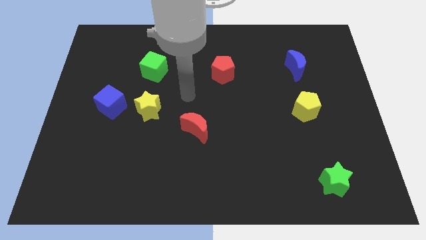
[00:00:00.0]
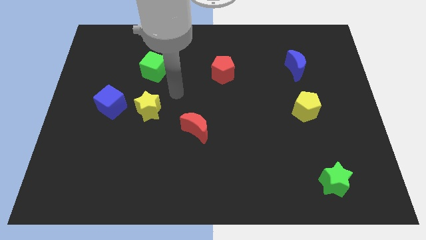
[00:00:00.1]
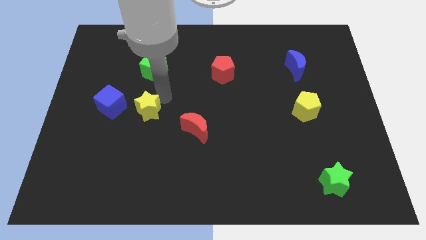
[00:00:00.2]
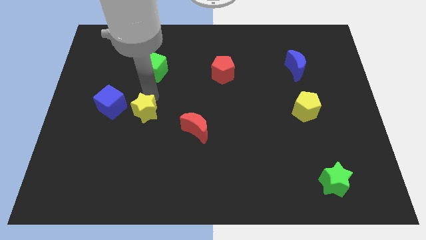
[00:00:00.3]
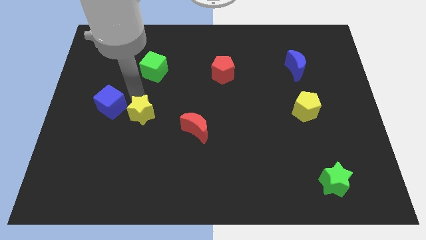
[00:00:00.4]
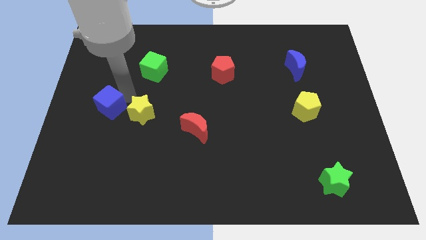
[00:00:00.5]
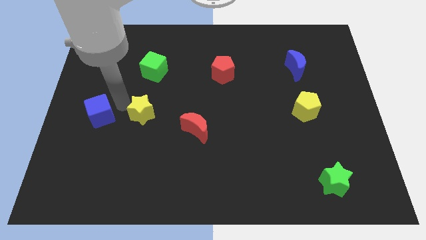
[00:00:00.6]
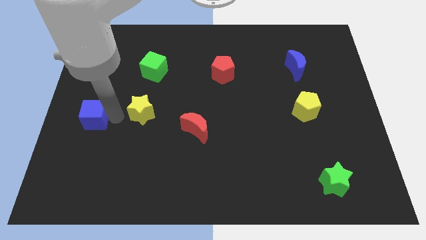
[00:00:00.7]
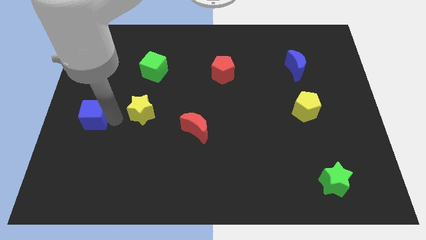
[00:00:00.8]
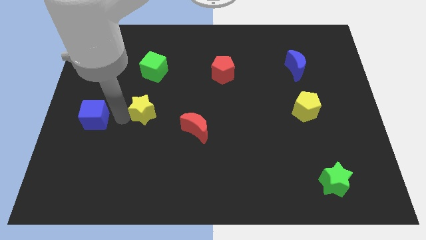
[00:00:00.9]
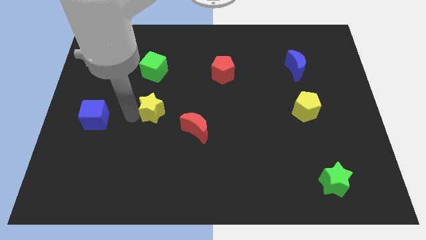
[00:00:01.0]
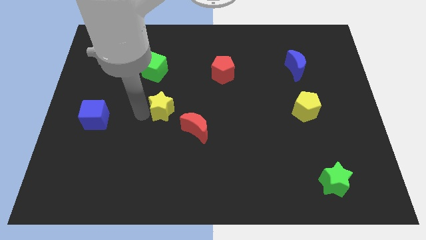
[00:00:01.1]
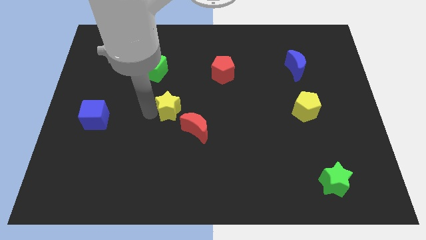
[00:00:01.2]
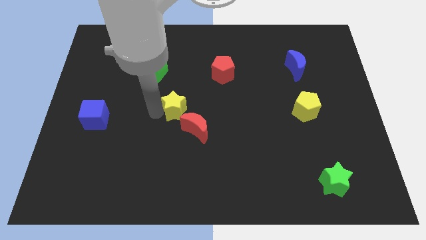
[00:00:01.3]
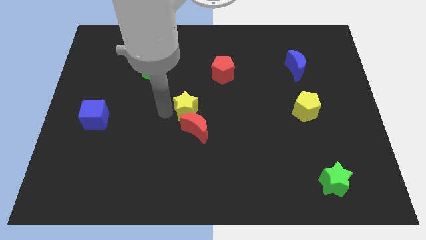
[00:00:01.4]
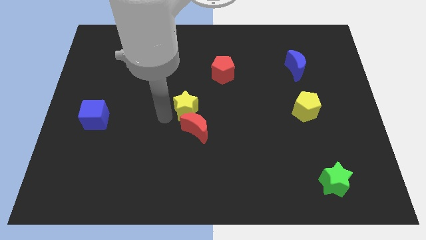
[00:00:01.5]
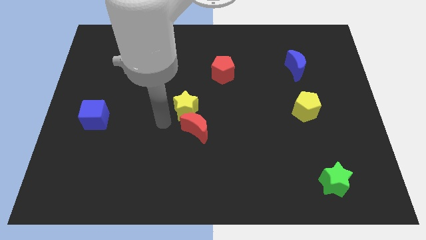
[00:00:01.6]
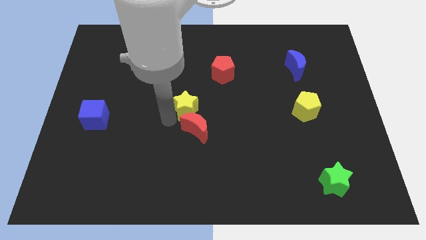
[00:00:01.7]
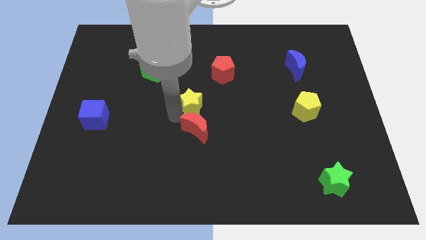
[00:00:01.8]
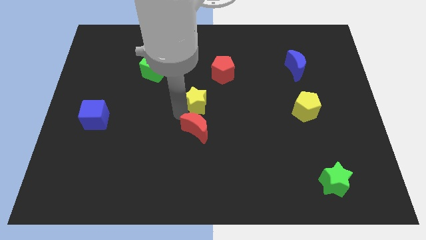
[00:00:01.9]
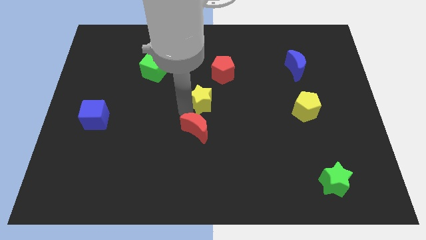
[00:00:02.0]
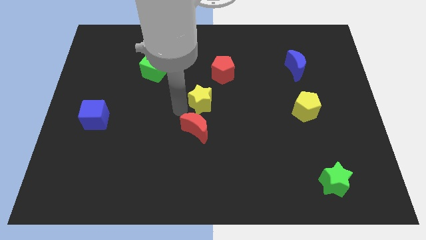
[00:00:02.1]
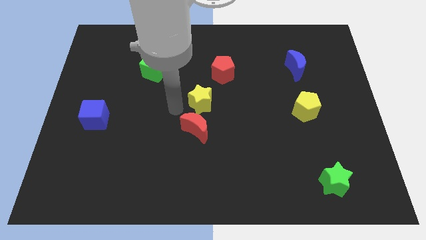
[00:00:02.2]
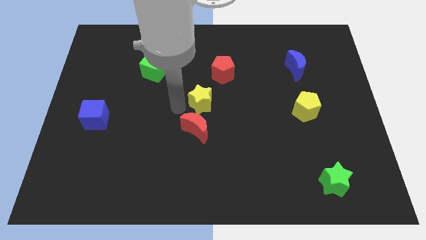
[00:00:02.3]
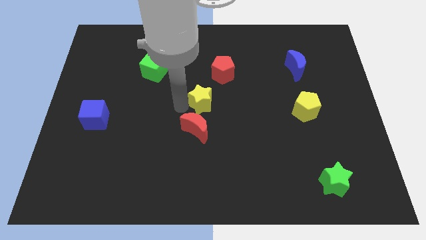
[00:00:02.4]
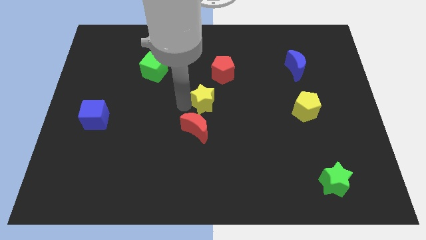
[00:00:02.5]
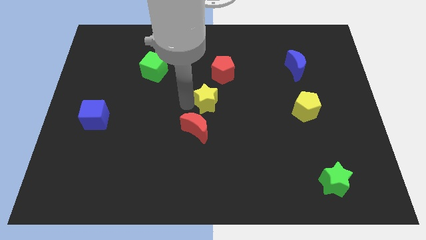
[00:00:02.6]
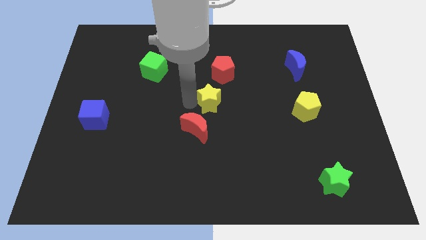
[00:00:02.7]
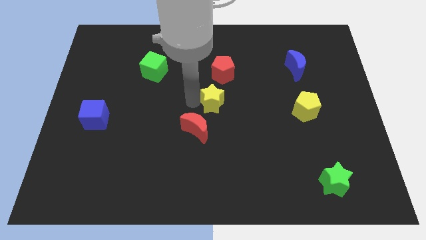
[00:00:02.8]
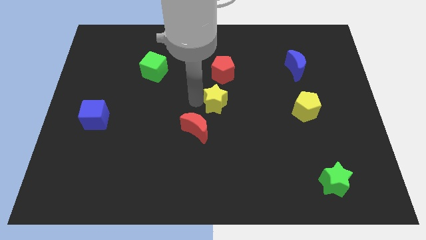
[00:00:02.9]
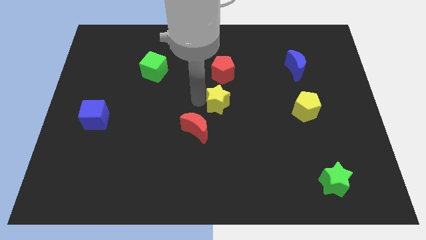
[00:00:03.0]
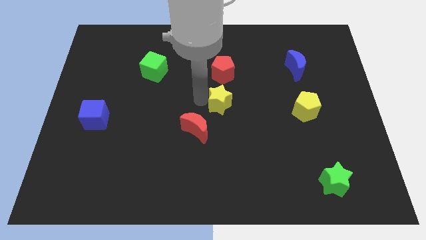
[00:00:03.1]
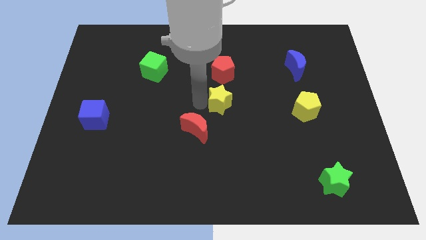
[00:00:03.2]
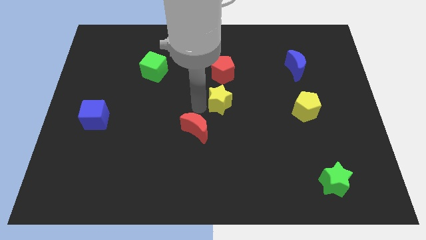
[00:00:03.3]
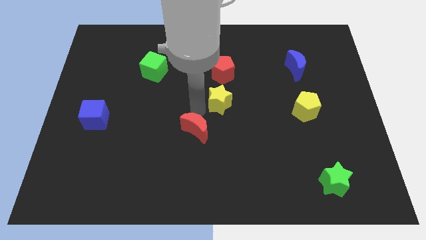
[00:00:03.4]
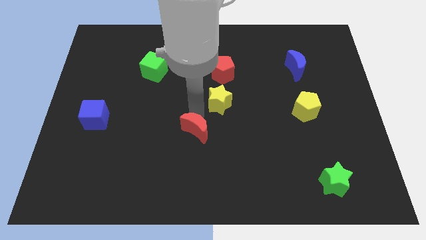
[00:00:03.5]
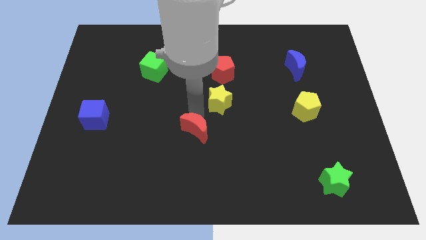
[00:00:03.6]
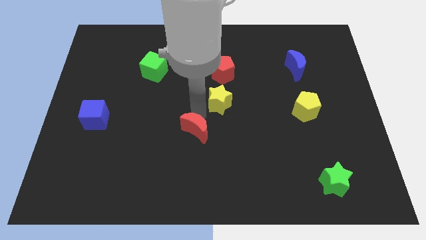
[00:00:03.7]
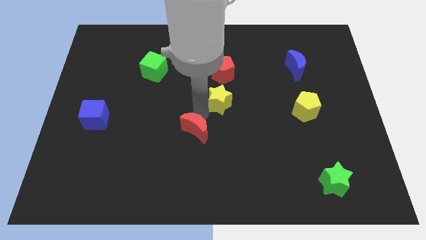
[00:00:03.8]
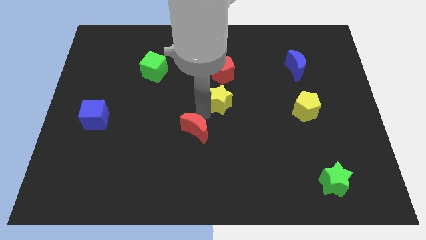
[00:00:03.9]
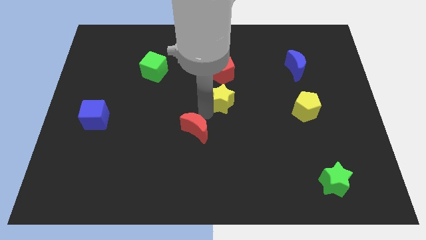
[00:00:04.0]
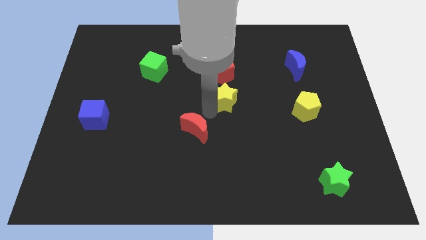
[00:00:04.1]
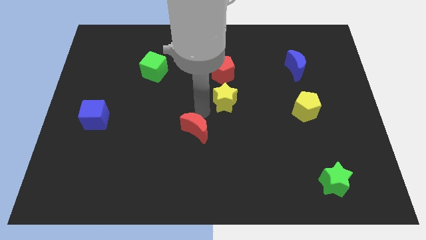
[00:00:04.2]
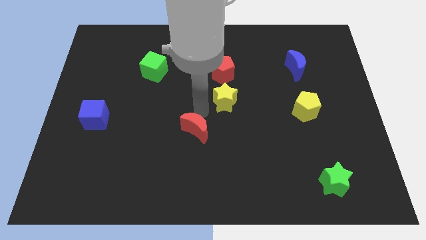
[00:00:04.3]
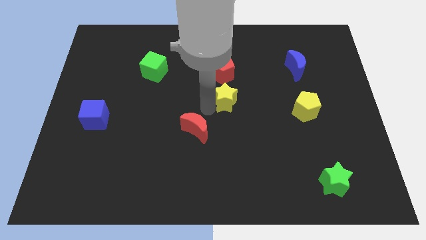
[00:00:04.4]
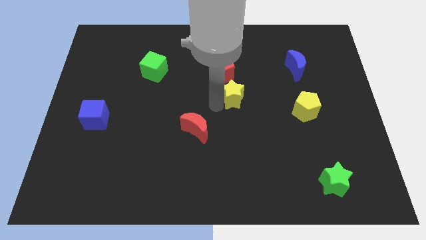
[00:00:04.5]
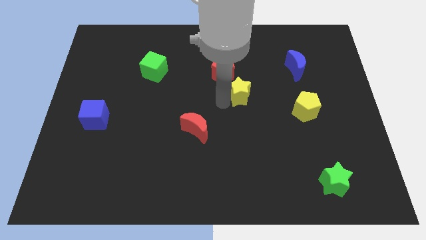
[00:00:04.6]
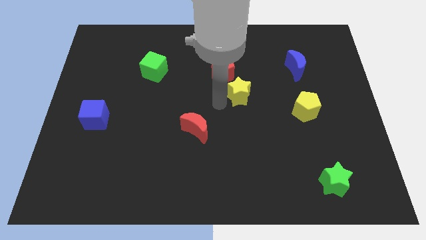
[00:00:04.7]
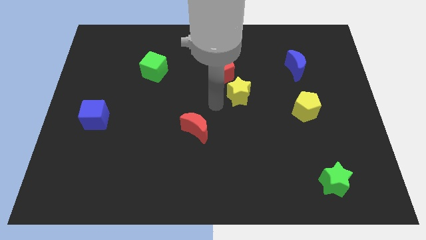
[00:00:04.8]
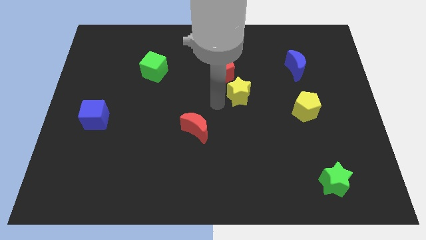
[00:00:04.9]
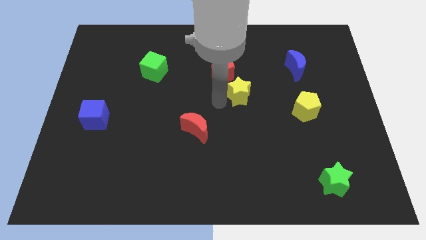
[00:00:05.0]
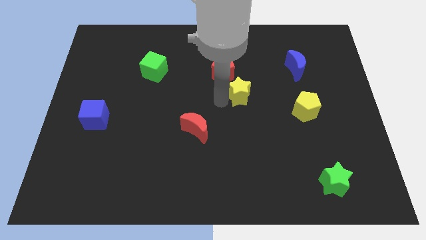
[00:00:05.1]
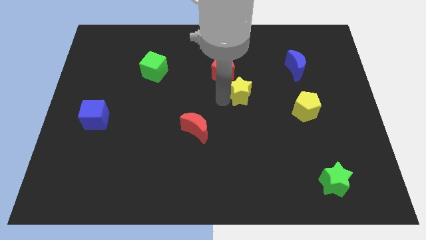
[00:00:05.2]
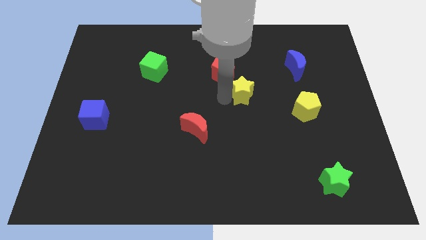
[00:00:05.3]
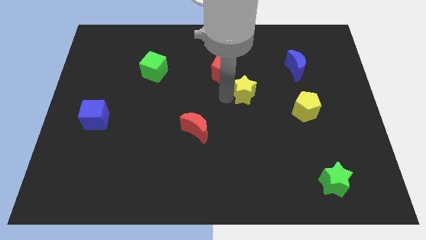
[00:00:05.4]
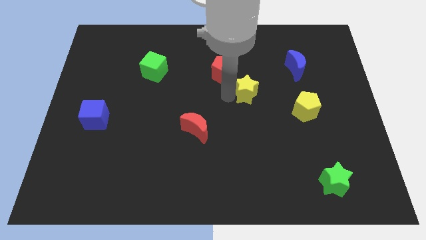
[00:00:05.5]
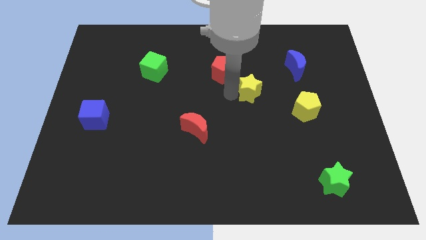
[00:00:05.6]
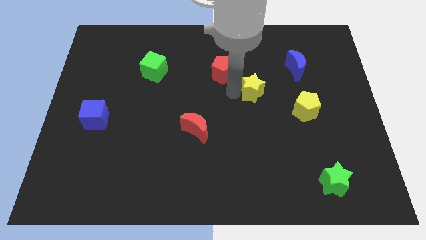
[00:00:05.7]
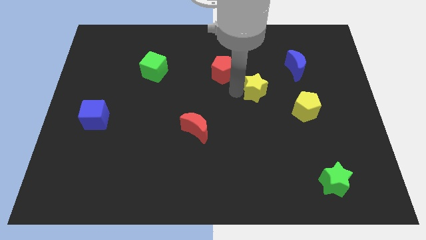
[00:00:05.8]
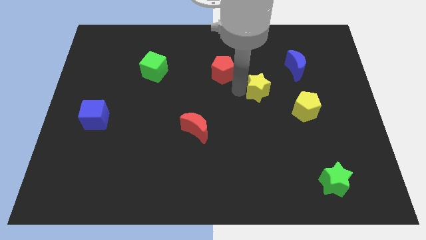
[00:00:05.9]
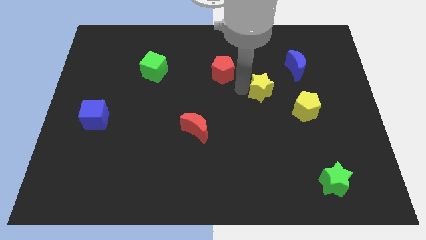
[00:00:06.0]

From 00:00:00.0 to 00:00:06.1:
move the yellow star diagonally up and to the left of the yellow pentagon
